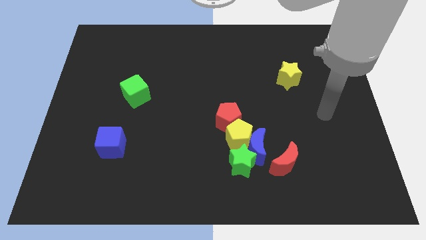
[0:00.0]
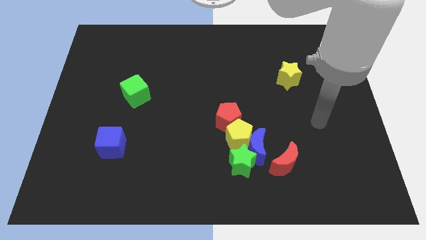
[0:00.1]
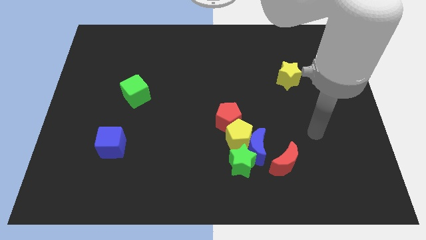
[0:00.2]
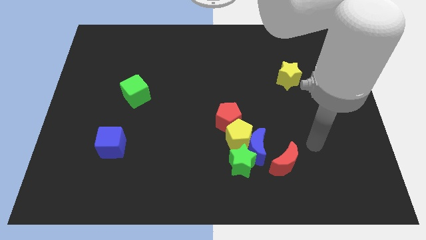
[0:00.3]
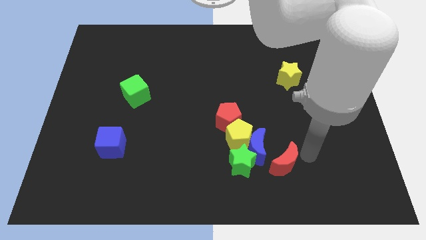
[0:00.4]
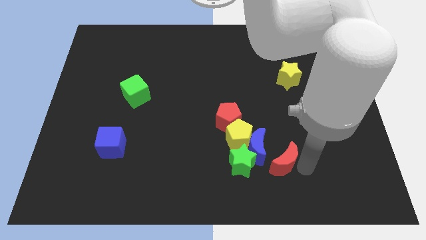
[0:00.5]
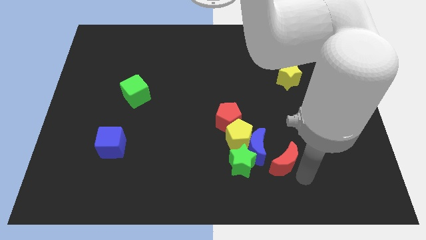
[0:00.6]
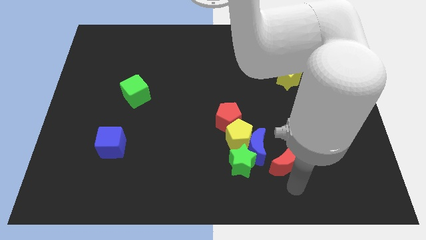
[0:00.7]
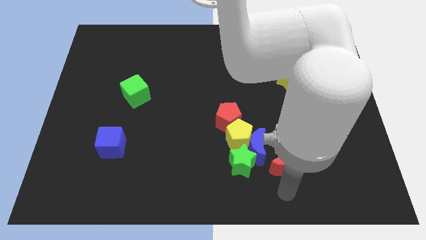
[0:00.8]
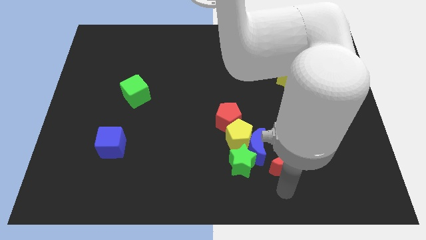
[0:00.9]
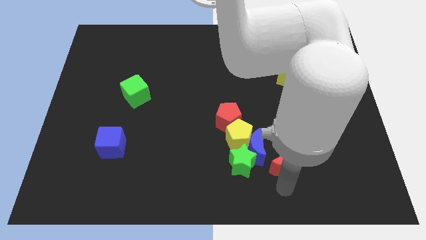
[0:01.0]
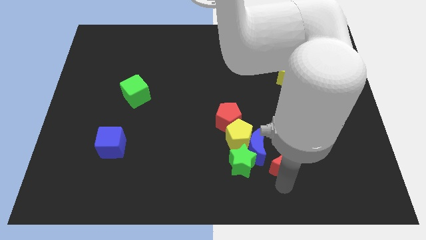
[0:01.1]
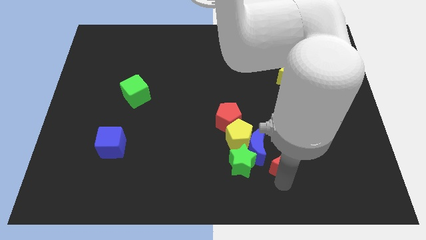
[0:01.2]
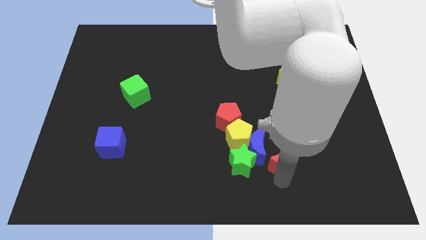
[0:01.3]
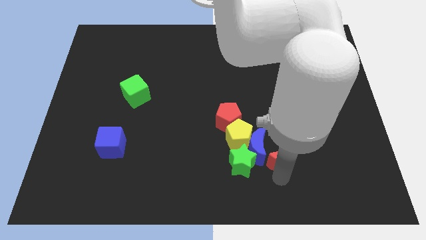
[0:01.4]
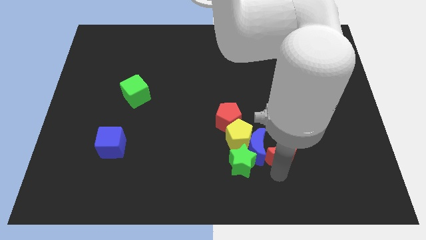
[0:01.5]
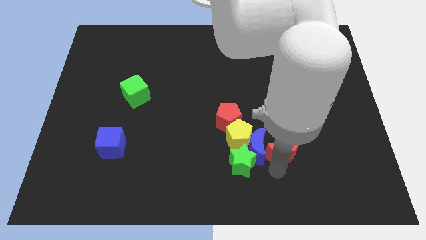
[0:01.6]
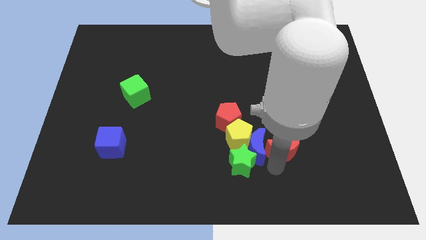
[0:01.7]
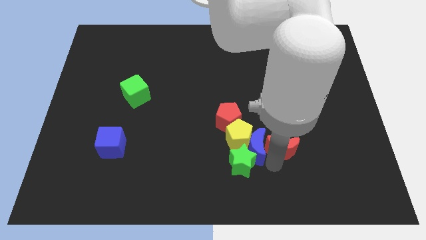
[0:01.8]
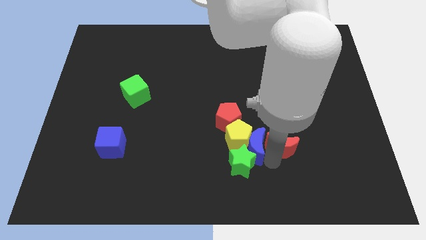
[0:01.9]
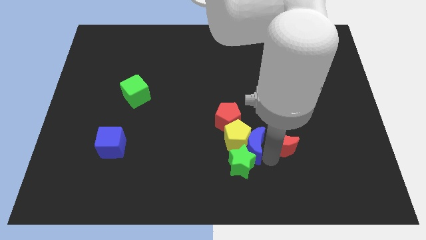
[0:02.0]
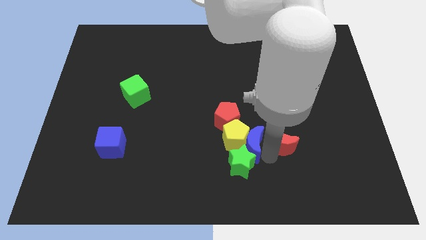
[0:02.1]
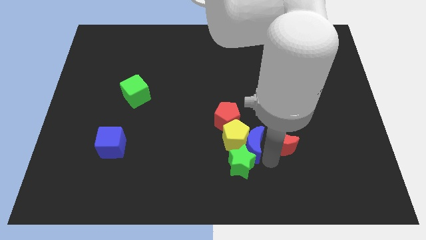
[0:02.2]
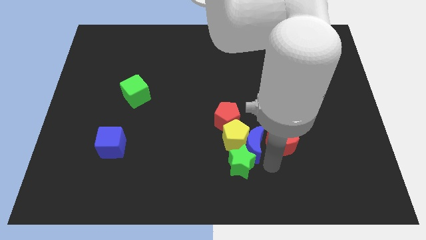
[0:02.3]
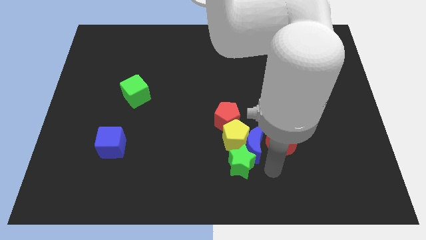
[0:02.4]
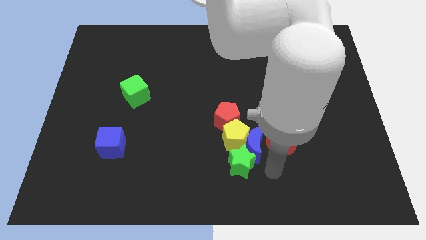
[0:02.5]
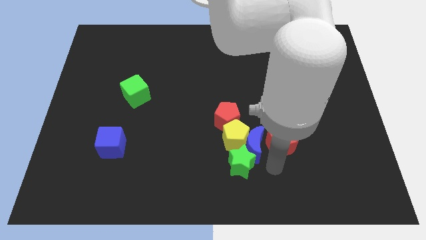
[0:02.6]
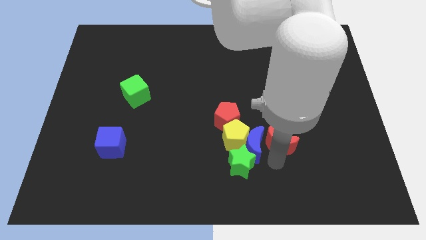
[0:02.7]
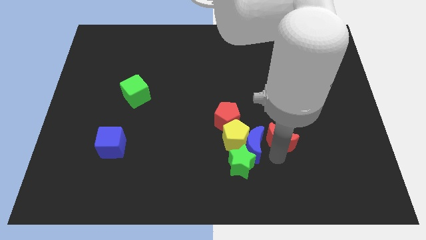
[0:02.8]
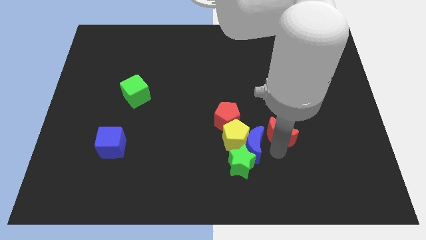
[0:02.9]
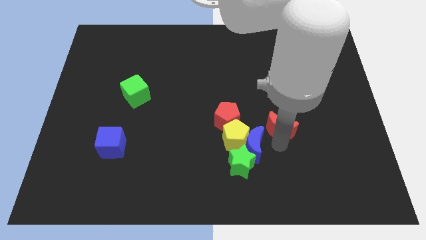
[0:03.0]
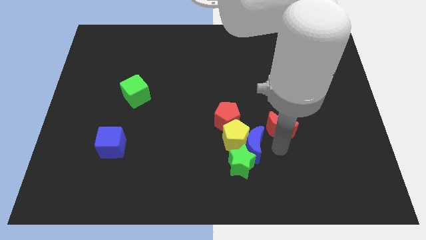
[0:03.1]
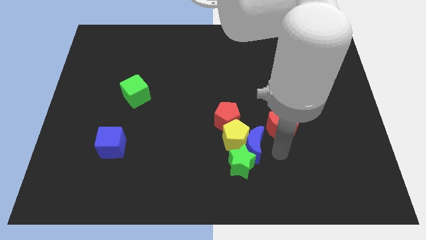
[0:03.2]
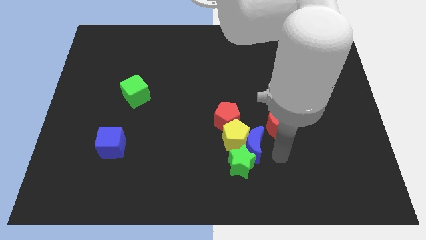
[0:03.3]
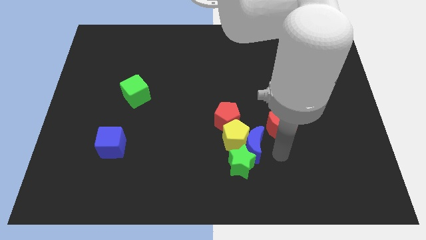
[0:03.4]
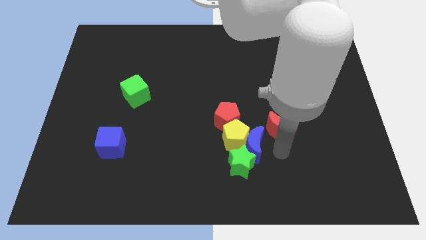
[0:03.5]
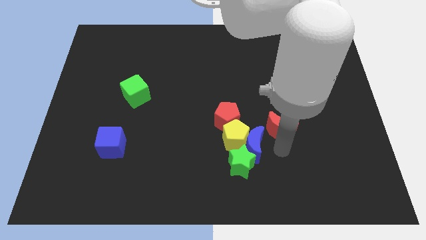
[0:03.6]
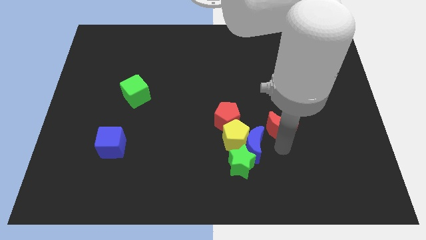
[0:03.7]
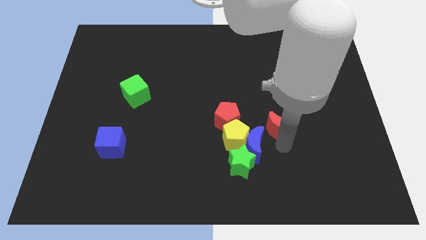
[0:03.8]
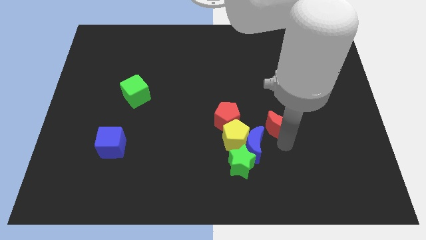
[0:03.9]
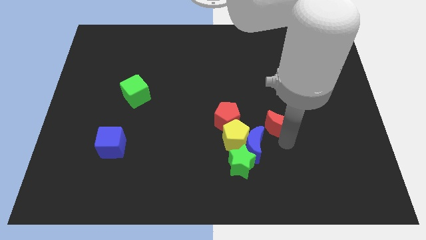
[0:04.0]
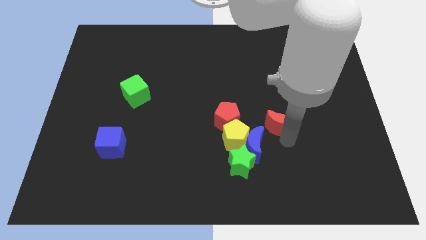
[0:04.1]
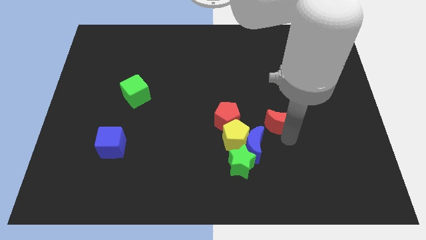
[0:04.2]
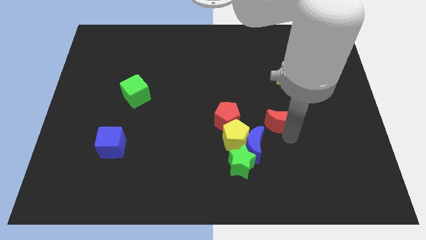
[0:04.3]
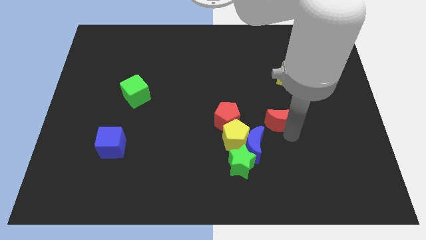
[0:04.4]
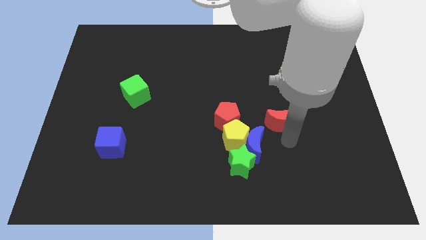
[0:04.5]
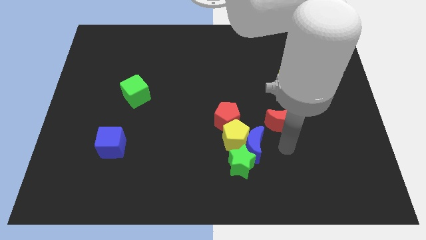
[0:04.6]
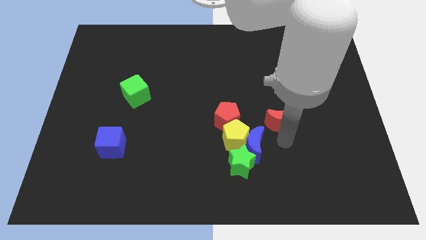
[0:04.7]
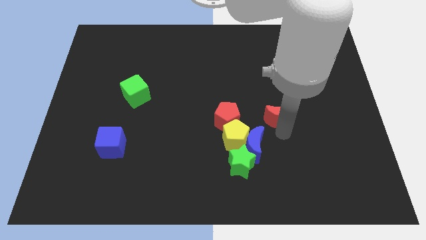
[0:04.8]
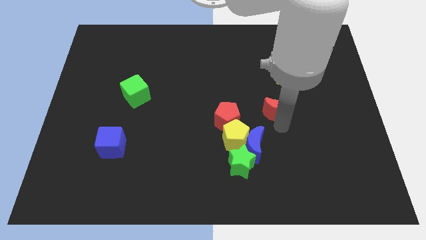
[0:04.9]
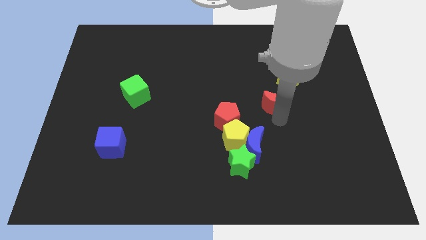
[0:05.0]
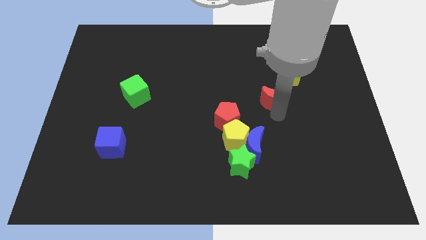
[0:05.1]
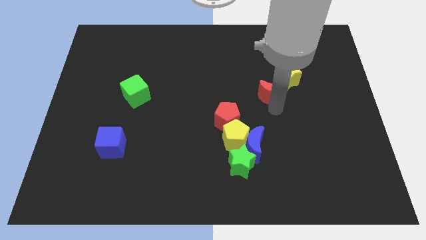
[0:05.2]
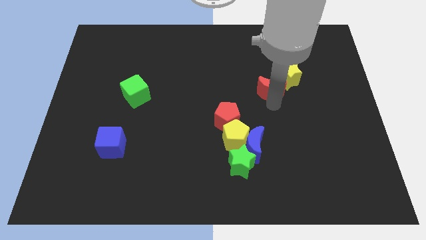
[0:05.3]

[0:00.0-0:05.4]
slide the red moon upwards

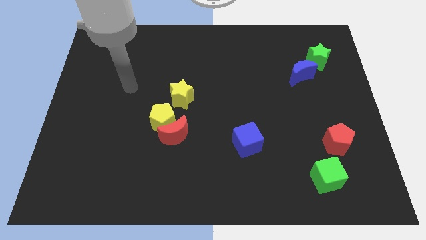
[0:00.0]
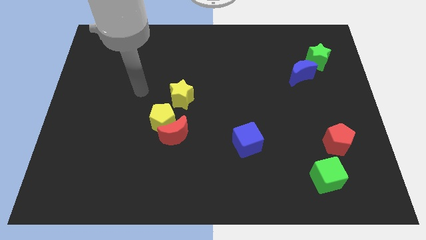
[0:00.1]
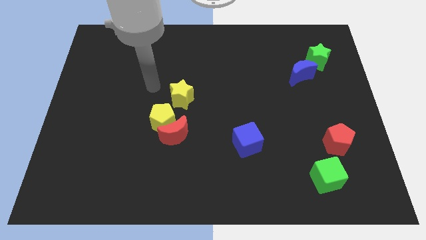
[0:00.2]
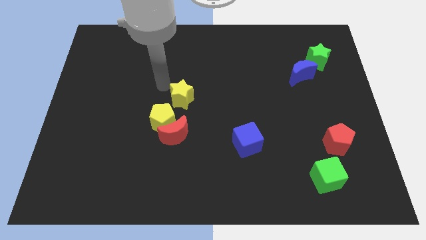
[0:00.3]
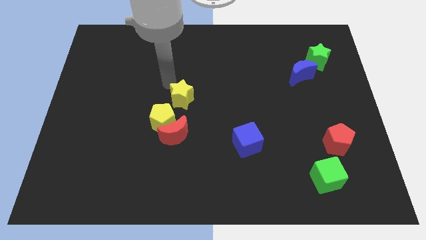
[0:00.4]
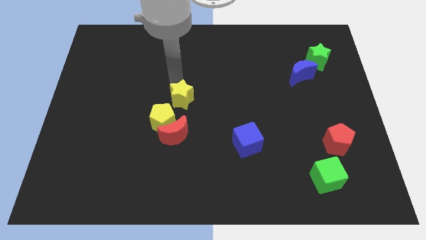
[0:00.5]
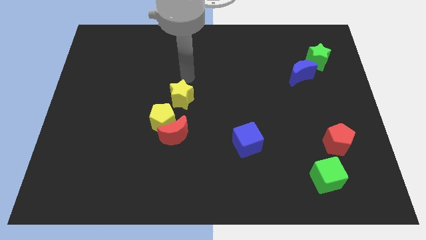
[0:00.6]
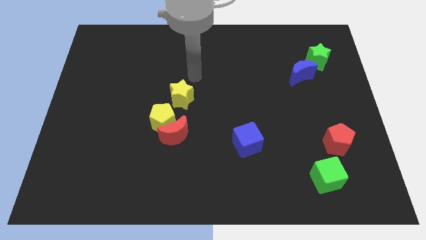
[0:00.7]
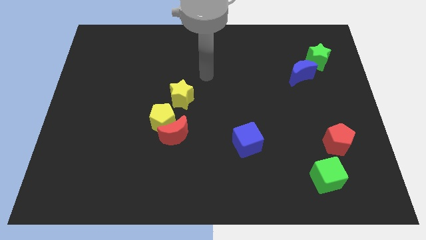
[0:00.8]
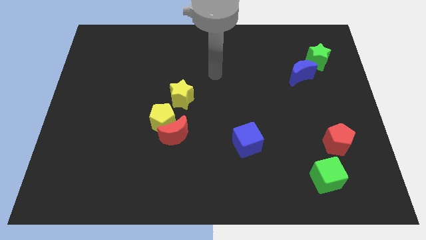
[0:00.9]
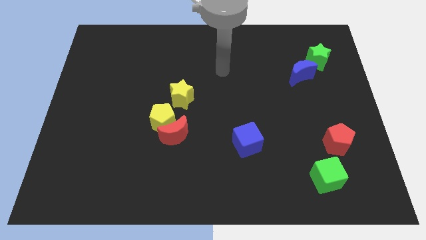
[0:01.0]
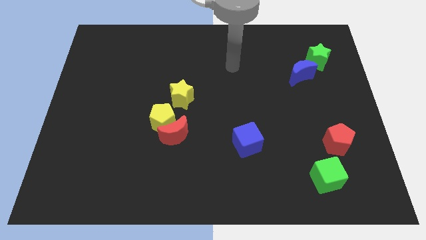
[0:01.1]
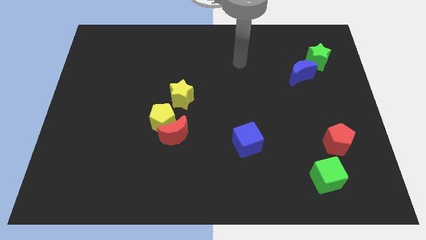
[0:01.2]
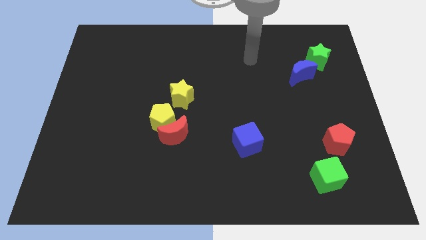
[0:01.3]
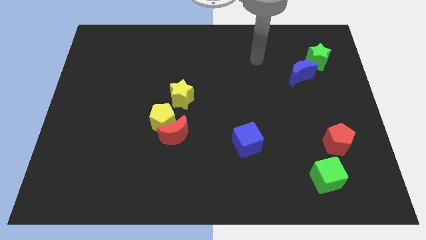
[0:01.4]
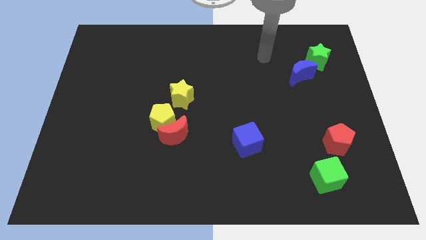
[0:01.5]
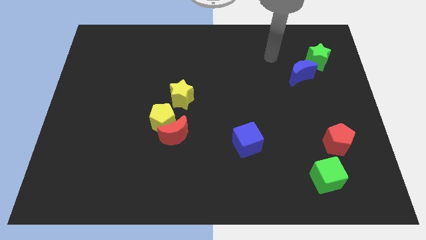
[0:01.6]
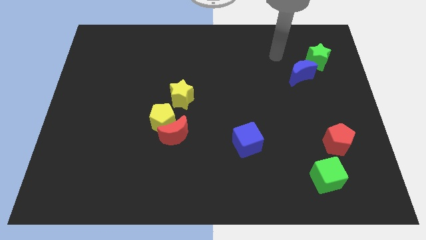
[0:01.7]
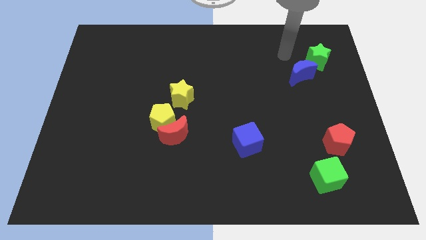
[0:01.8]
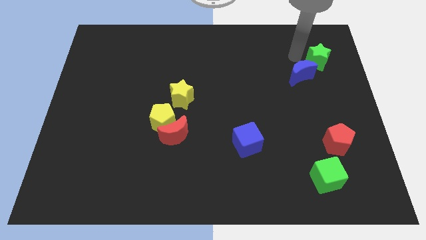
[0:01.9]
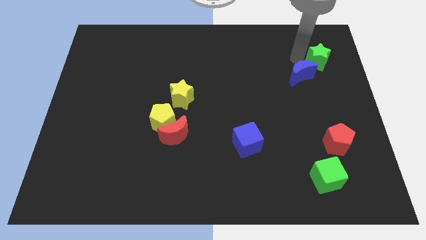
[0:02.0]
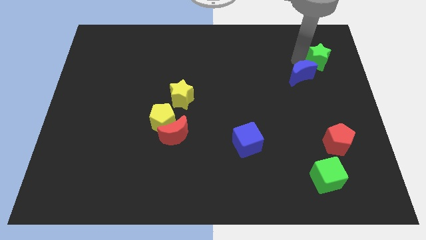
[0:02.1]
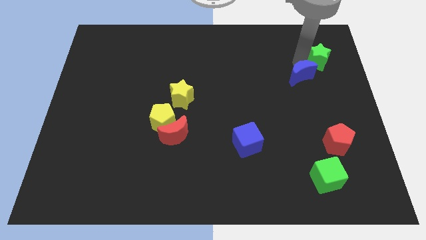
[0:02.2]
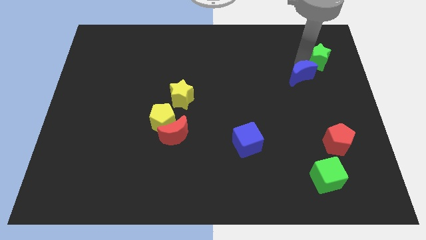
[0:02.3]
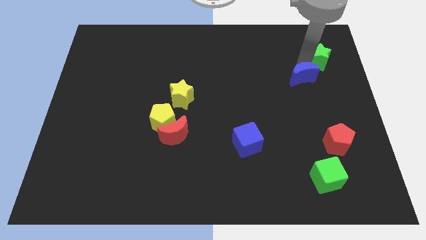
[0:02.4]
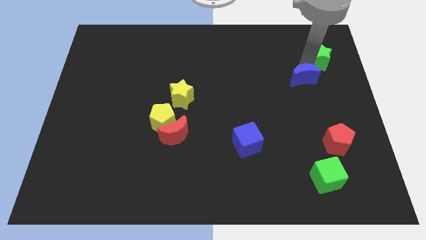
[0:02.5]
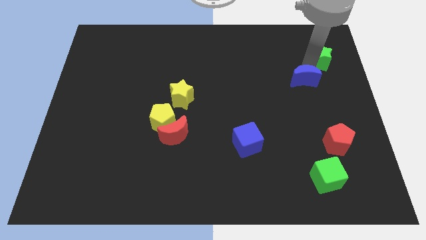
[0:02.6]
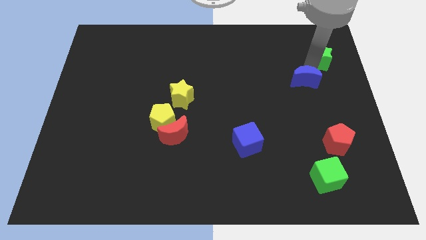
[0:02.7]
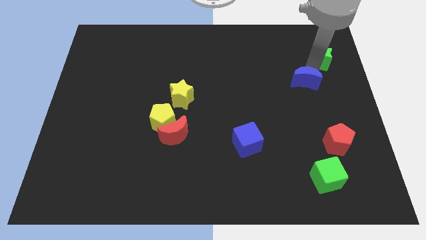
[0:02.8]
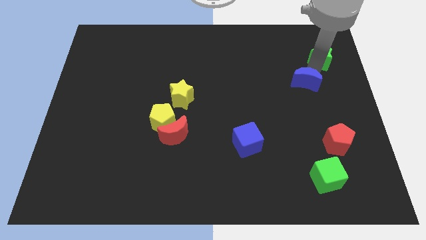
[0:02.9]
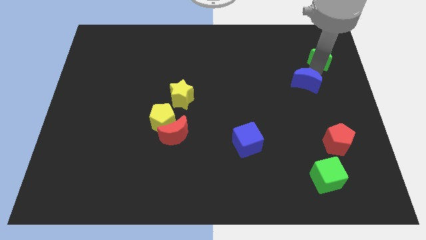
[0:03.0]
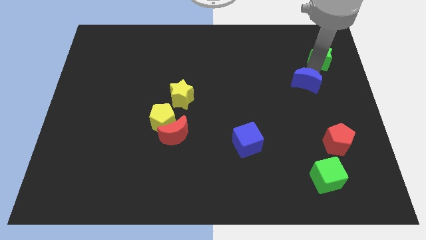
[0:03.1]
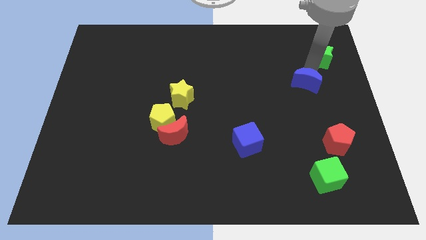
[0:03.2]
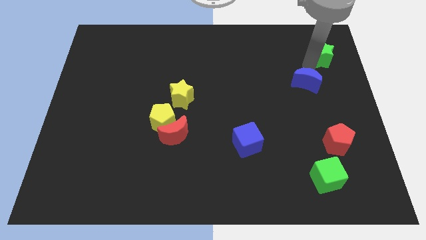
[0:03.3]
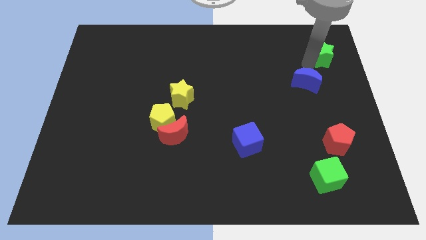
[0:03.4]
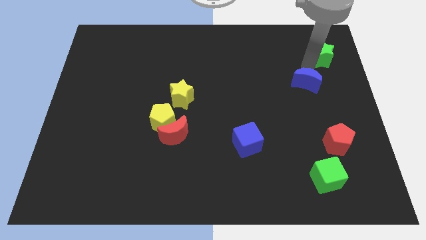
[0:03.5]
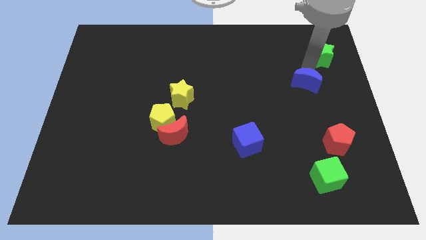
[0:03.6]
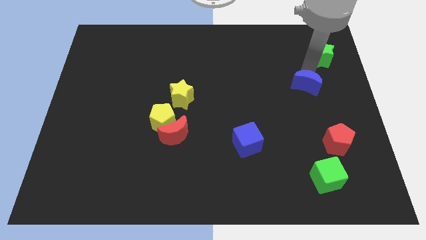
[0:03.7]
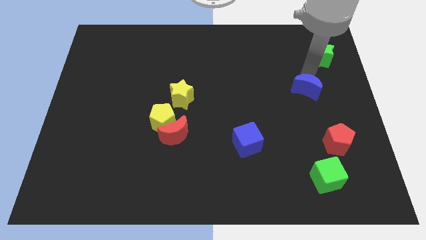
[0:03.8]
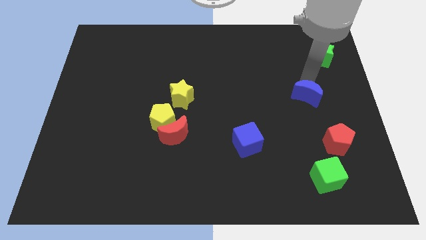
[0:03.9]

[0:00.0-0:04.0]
move the blue moon a bit down
